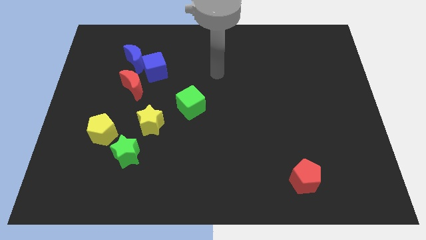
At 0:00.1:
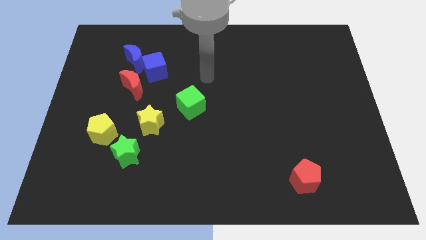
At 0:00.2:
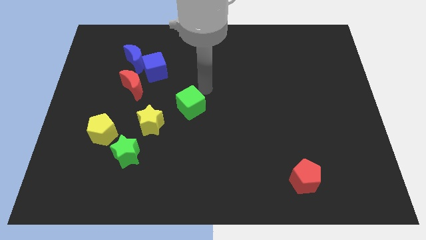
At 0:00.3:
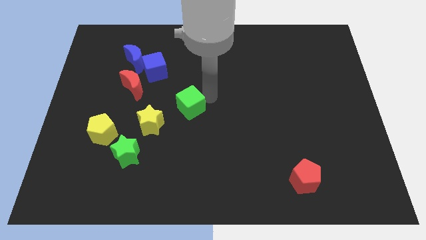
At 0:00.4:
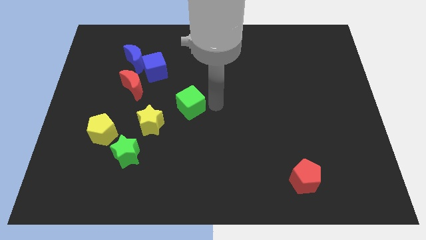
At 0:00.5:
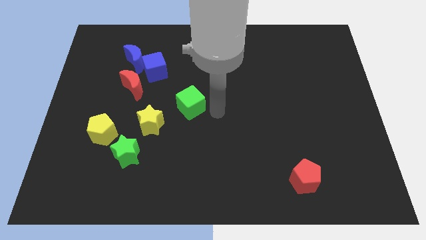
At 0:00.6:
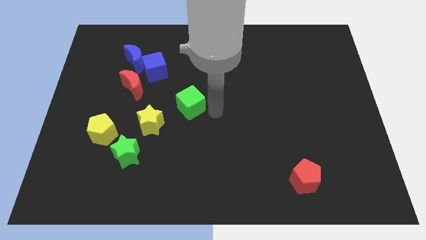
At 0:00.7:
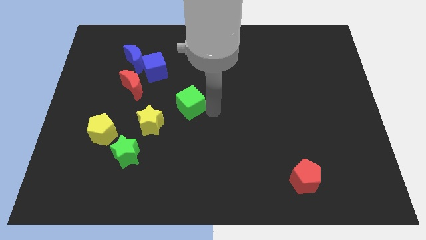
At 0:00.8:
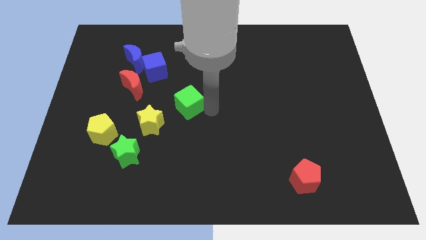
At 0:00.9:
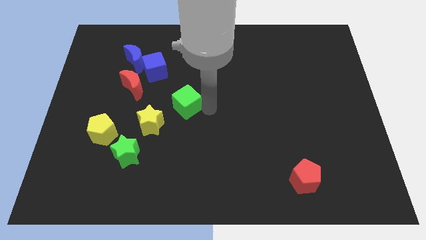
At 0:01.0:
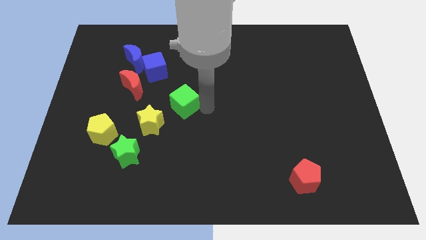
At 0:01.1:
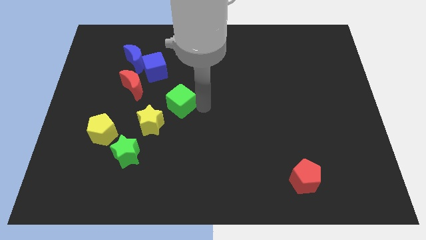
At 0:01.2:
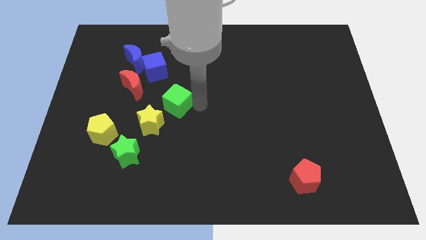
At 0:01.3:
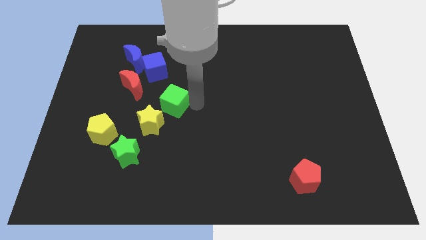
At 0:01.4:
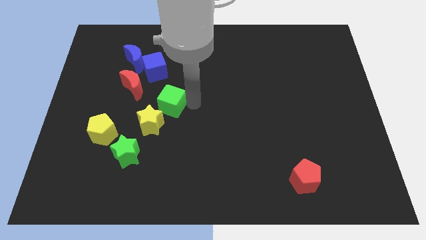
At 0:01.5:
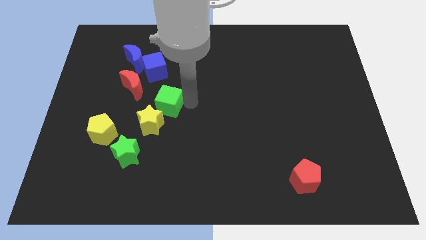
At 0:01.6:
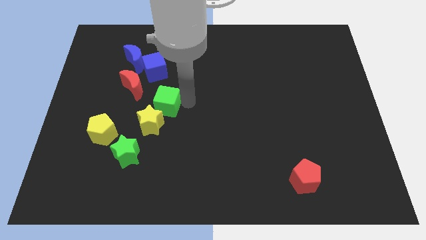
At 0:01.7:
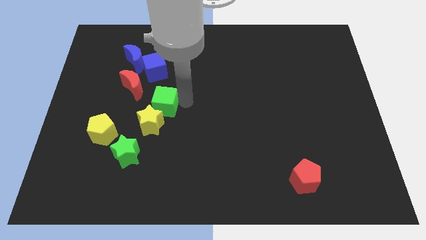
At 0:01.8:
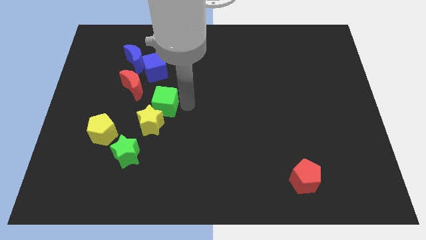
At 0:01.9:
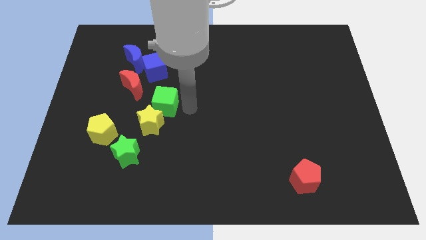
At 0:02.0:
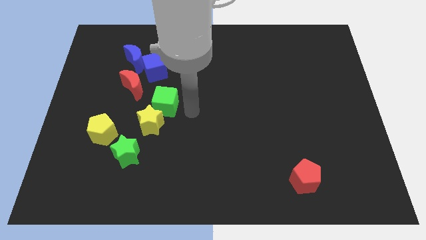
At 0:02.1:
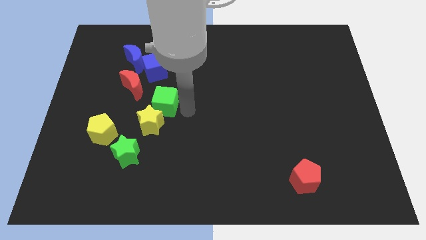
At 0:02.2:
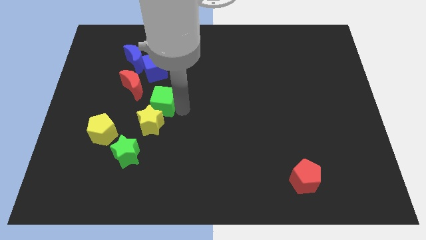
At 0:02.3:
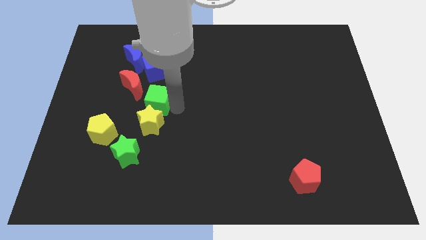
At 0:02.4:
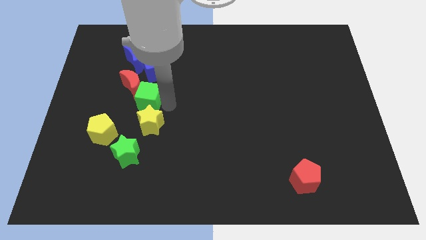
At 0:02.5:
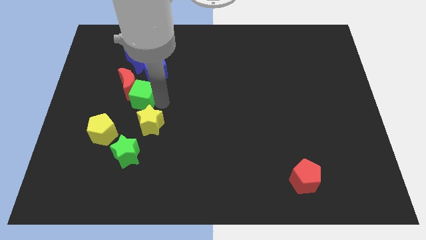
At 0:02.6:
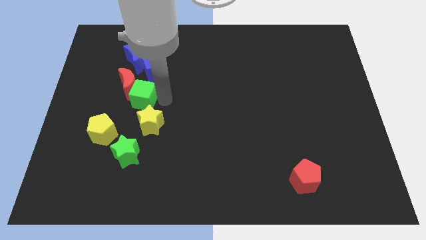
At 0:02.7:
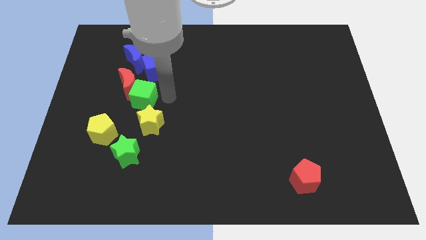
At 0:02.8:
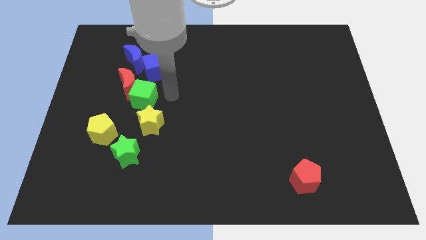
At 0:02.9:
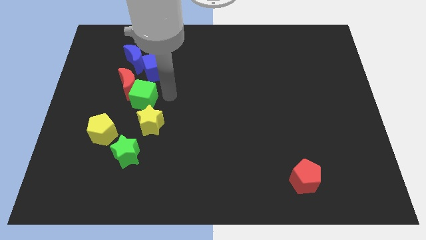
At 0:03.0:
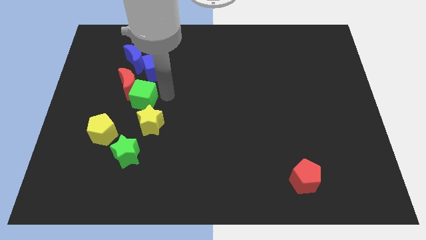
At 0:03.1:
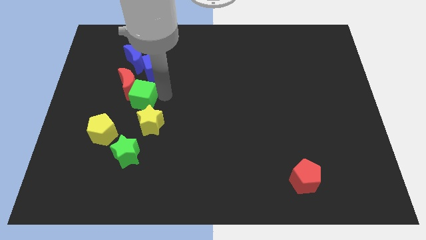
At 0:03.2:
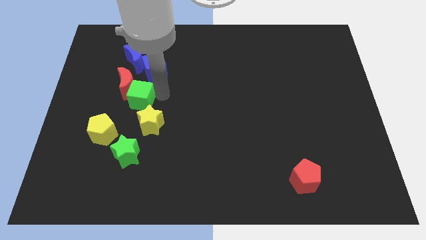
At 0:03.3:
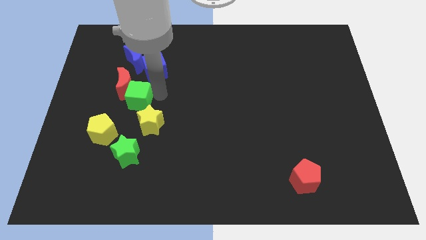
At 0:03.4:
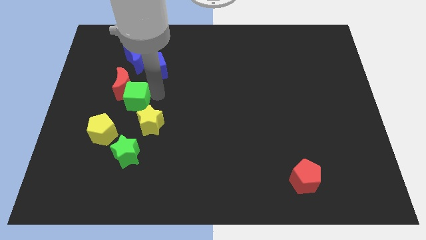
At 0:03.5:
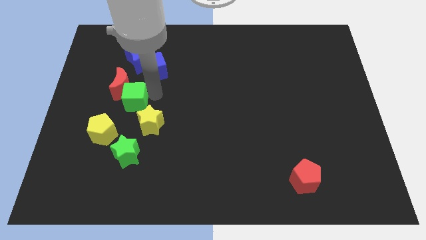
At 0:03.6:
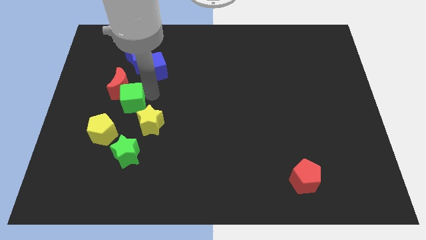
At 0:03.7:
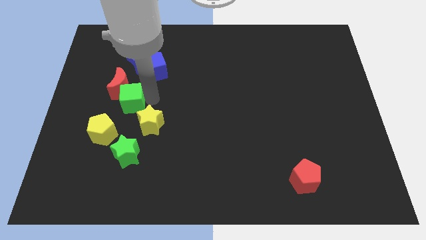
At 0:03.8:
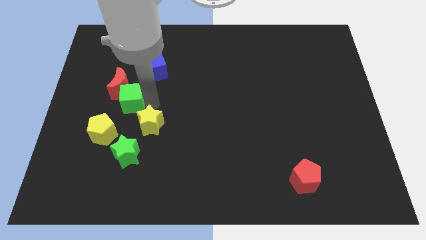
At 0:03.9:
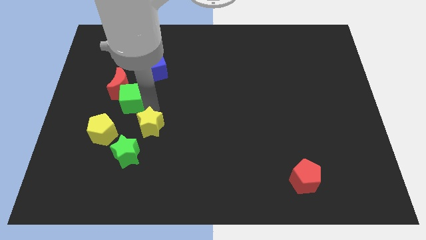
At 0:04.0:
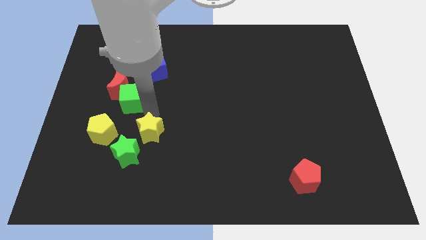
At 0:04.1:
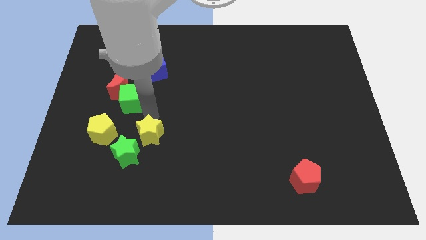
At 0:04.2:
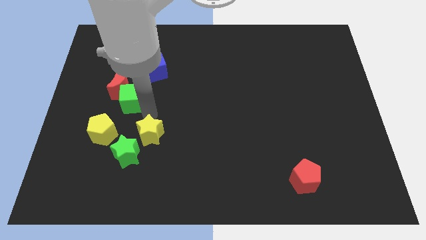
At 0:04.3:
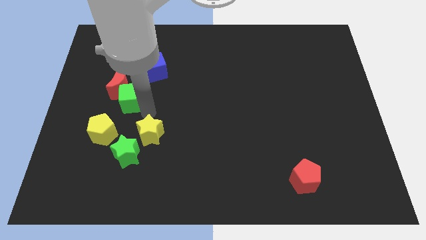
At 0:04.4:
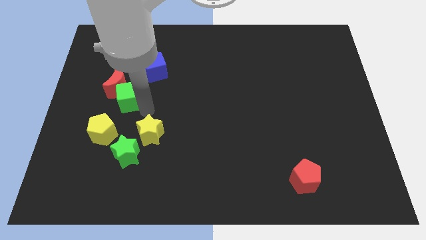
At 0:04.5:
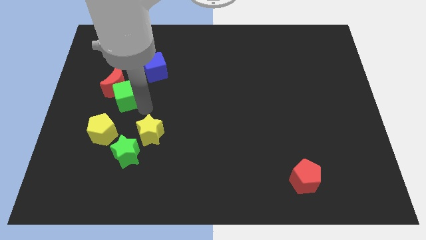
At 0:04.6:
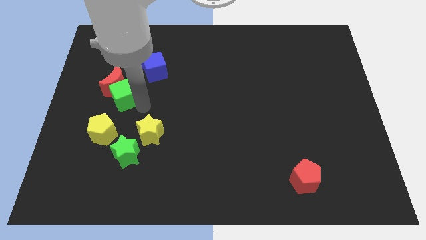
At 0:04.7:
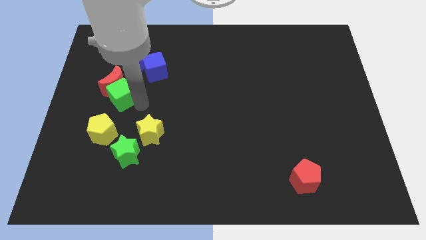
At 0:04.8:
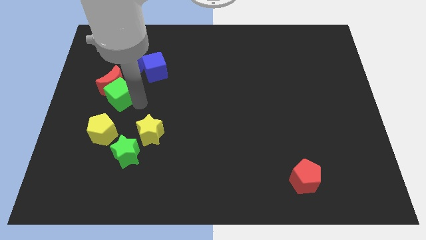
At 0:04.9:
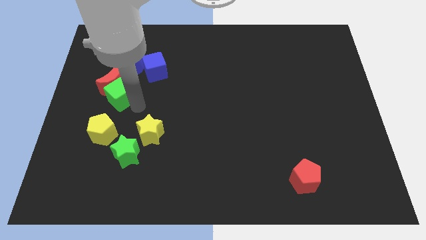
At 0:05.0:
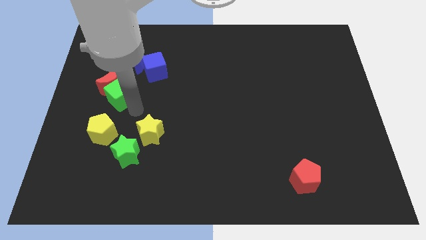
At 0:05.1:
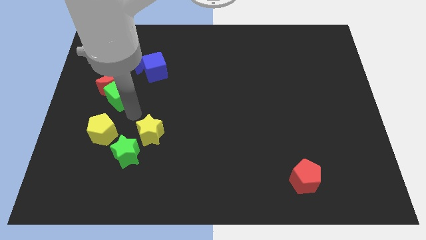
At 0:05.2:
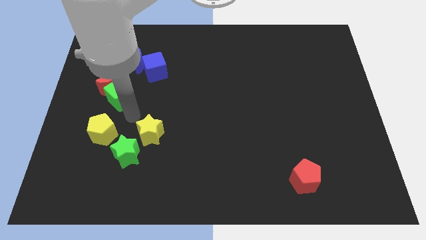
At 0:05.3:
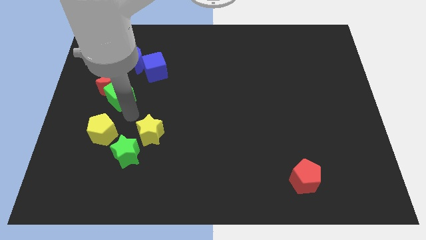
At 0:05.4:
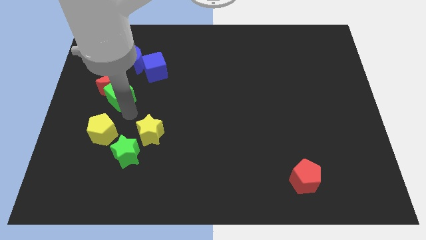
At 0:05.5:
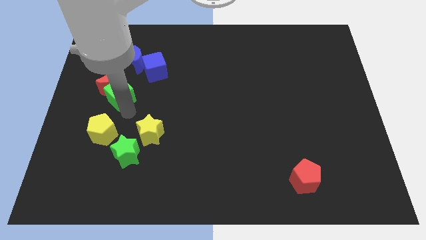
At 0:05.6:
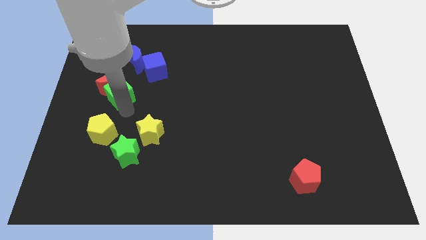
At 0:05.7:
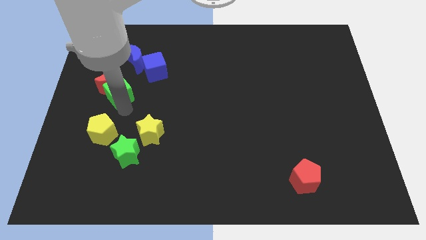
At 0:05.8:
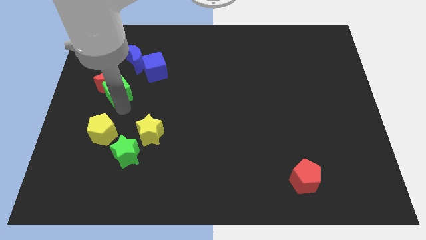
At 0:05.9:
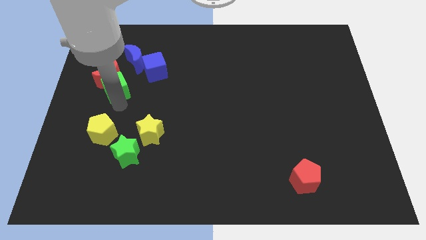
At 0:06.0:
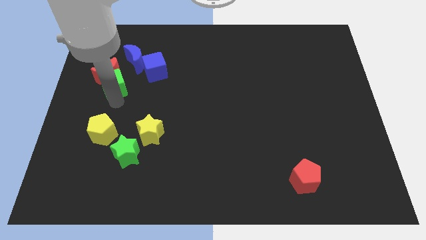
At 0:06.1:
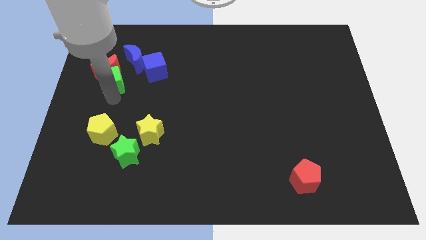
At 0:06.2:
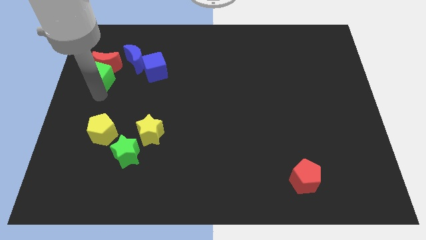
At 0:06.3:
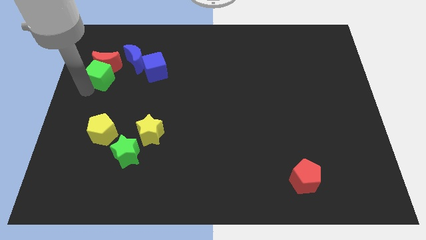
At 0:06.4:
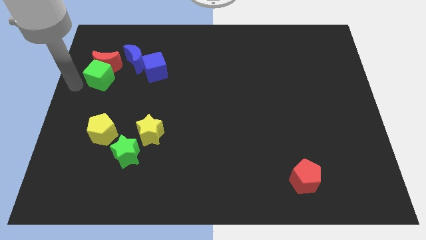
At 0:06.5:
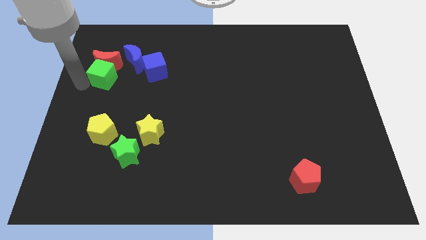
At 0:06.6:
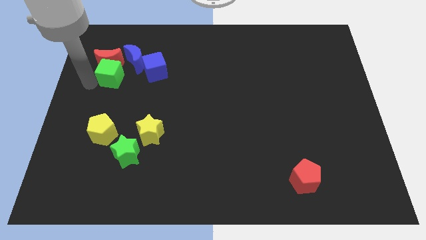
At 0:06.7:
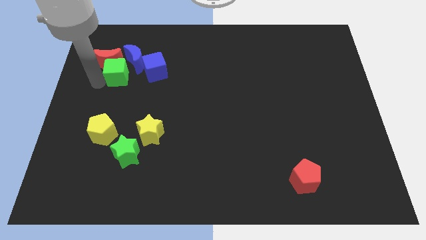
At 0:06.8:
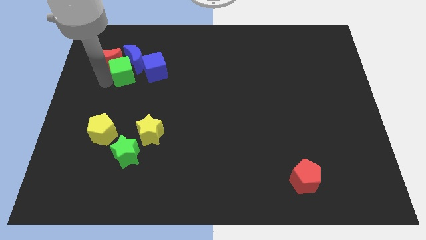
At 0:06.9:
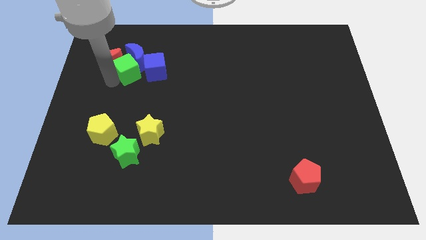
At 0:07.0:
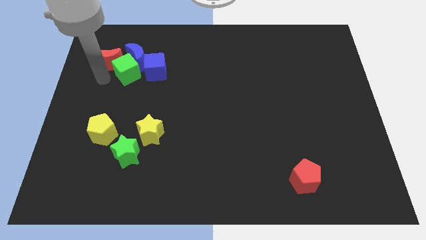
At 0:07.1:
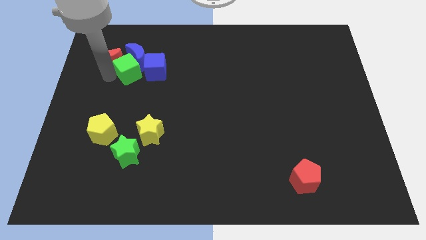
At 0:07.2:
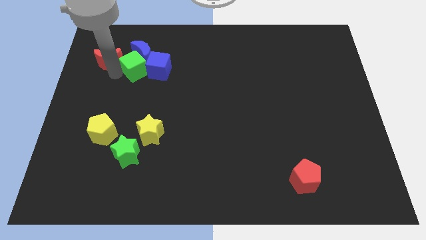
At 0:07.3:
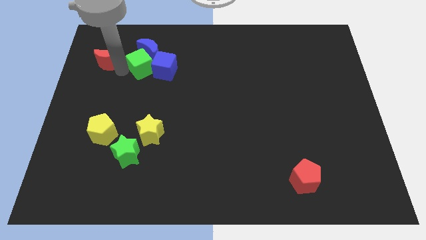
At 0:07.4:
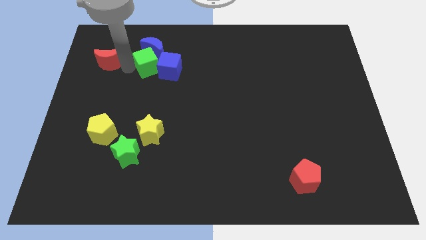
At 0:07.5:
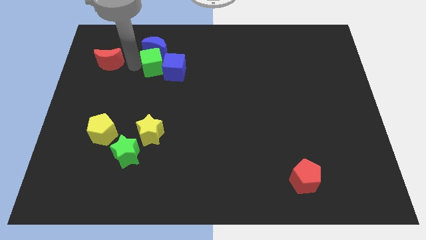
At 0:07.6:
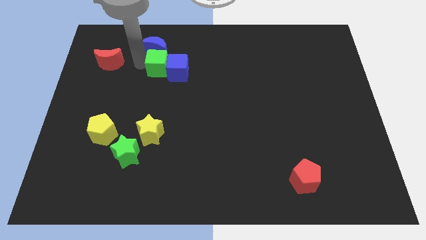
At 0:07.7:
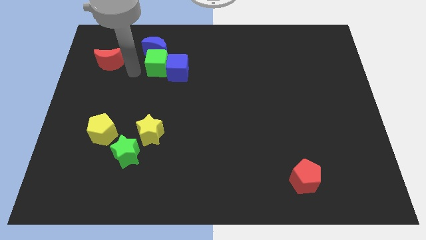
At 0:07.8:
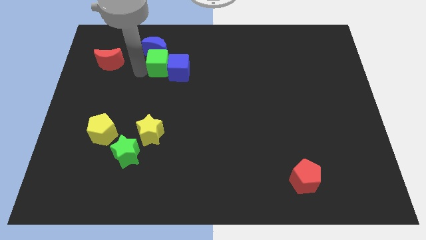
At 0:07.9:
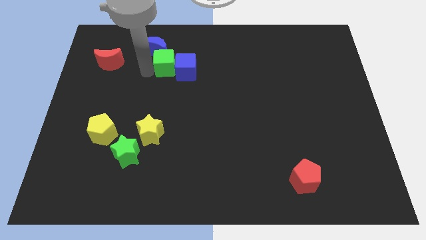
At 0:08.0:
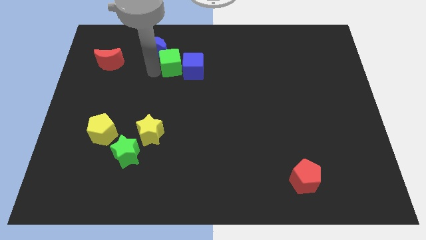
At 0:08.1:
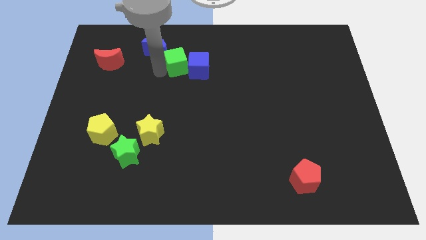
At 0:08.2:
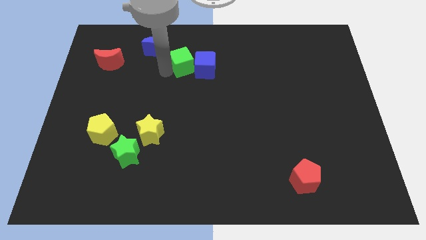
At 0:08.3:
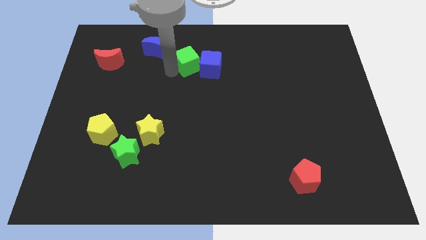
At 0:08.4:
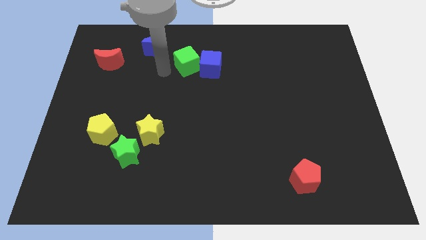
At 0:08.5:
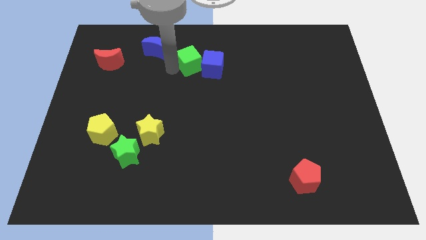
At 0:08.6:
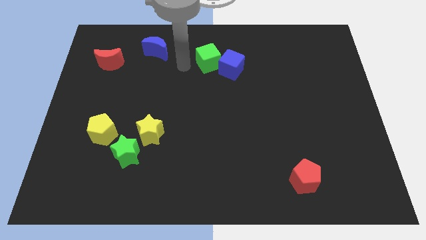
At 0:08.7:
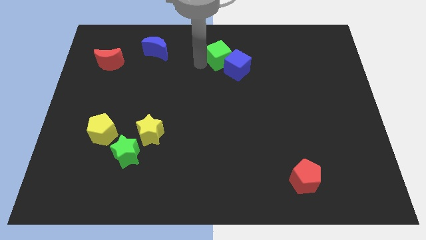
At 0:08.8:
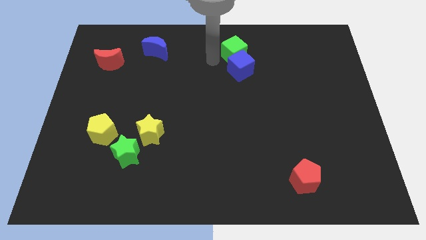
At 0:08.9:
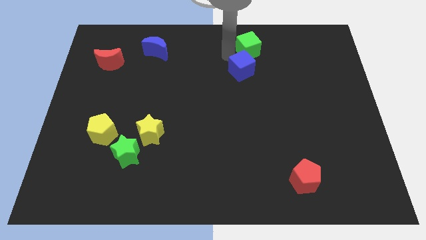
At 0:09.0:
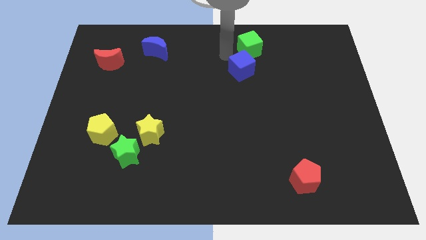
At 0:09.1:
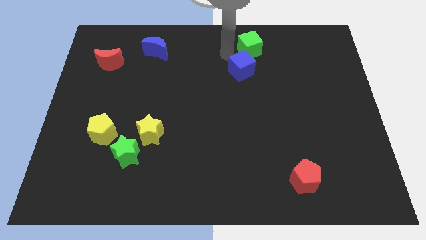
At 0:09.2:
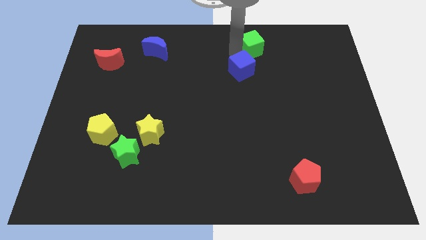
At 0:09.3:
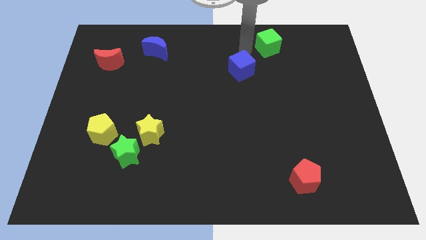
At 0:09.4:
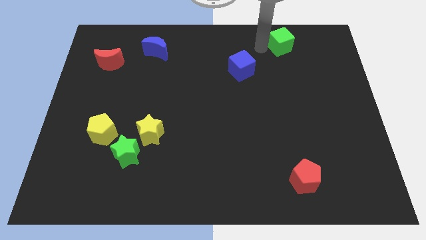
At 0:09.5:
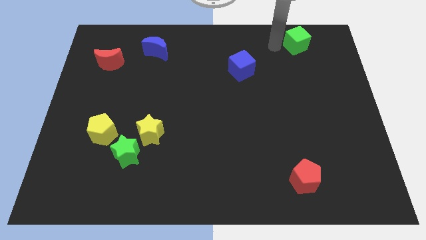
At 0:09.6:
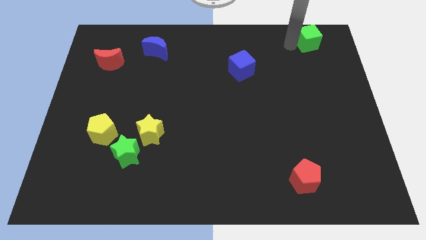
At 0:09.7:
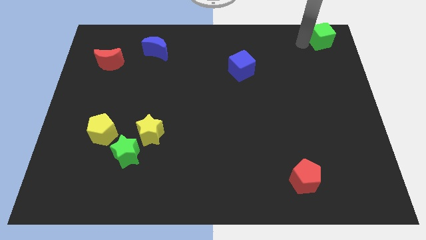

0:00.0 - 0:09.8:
slide the green cube to the upper right corner
